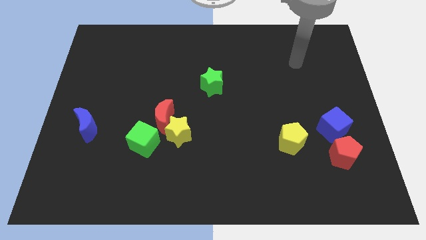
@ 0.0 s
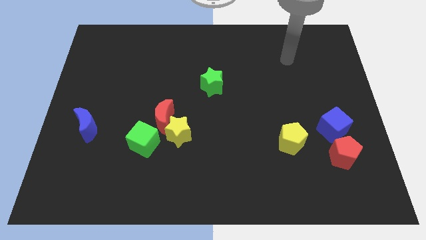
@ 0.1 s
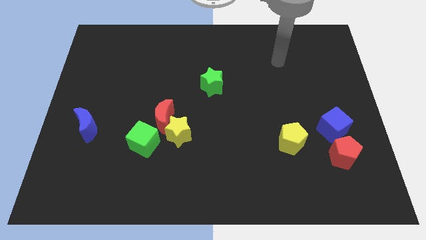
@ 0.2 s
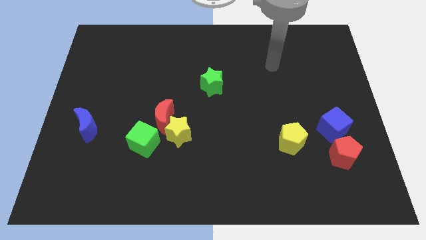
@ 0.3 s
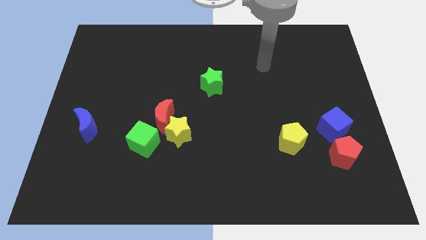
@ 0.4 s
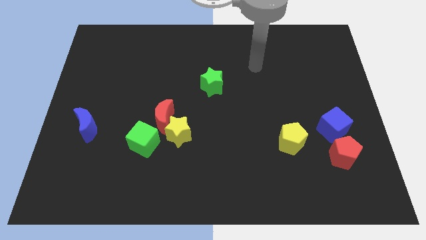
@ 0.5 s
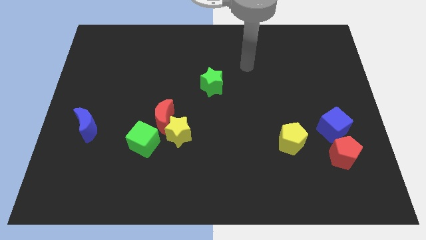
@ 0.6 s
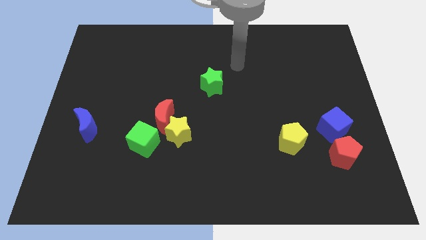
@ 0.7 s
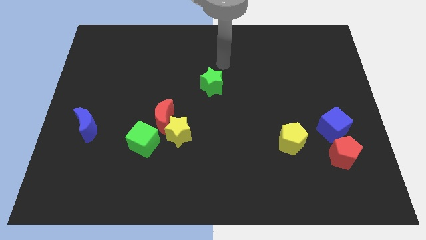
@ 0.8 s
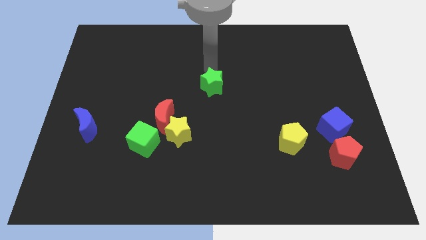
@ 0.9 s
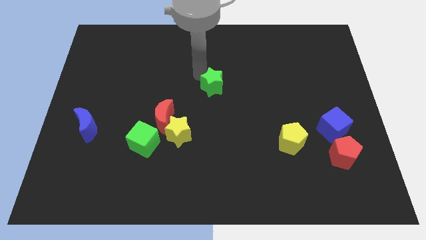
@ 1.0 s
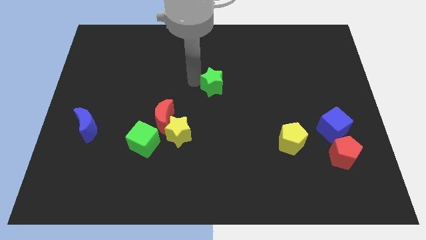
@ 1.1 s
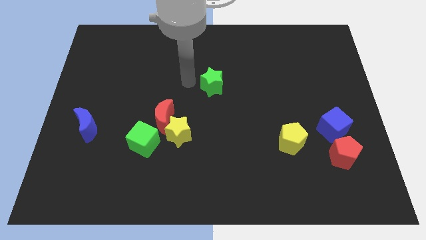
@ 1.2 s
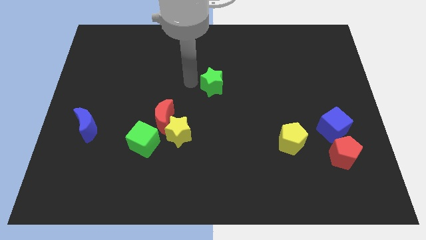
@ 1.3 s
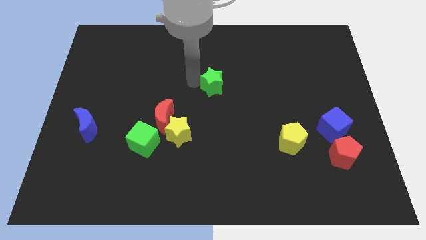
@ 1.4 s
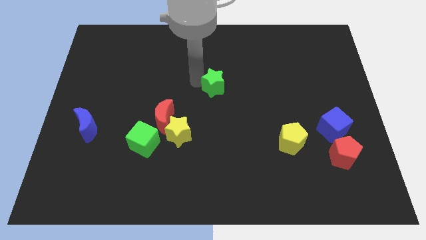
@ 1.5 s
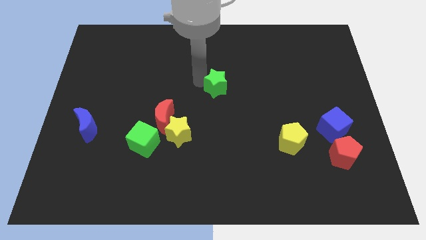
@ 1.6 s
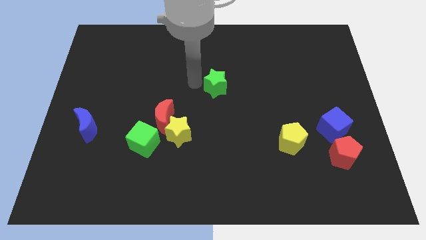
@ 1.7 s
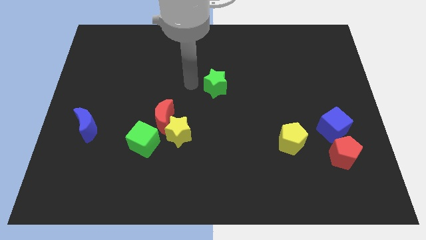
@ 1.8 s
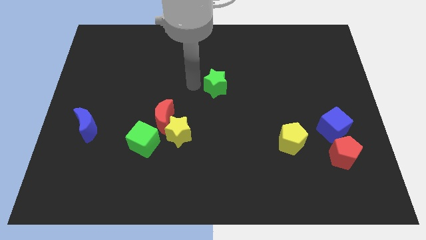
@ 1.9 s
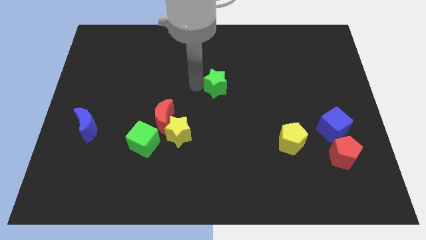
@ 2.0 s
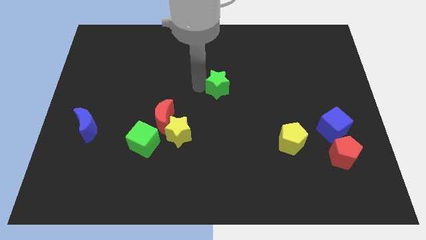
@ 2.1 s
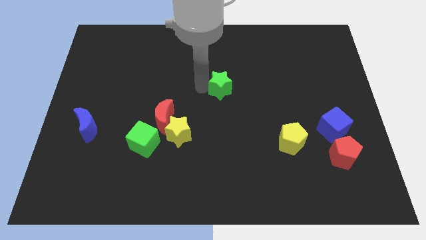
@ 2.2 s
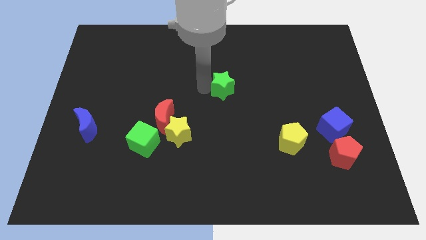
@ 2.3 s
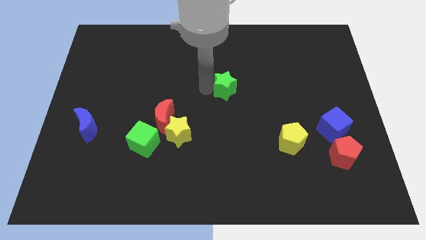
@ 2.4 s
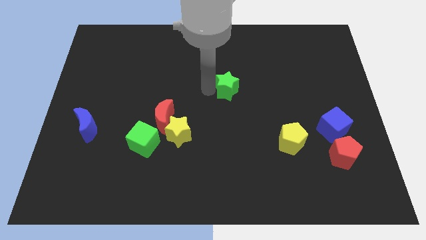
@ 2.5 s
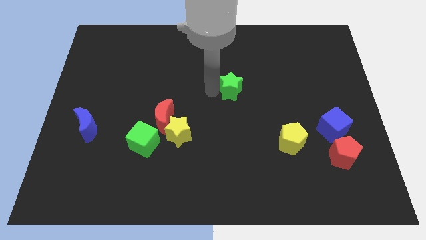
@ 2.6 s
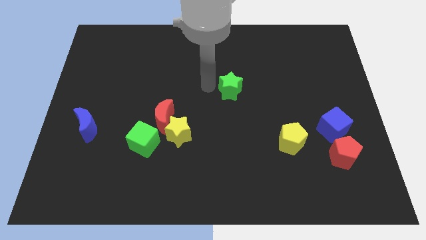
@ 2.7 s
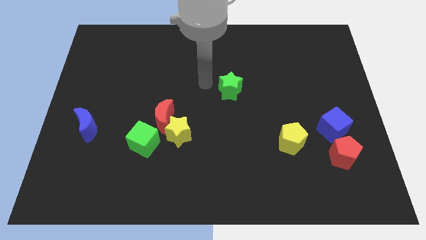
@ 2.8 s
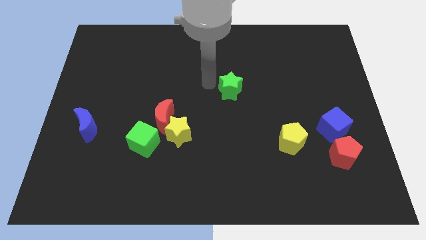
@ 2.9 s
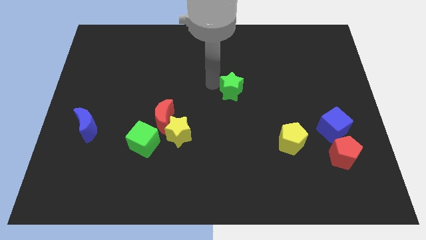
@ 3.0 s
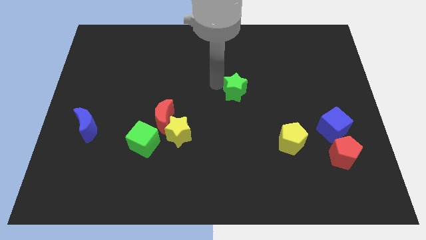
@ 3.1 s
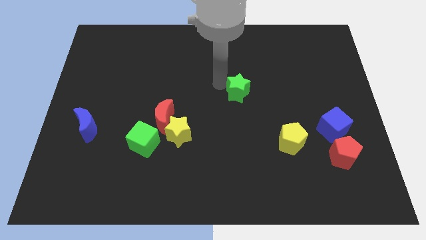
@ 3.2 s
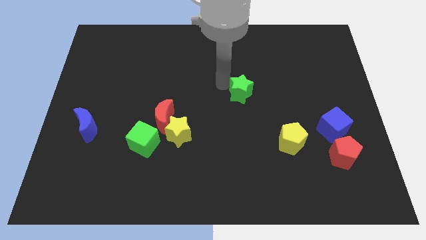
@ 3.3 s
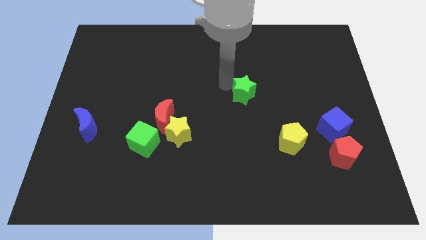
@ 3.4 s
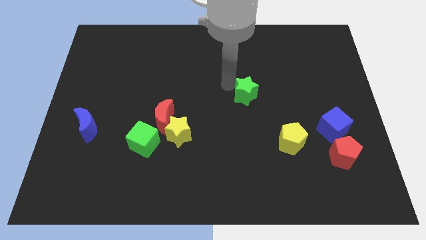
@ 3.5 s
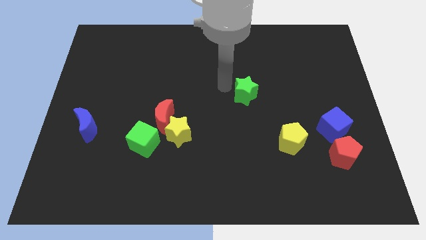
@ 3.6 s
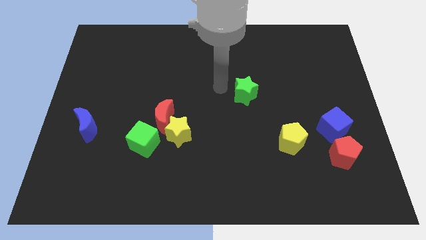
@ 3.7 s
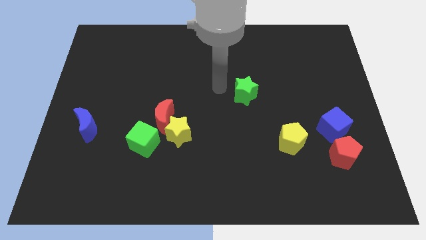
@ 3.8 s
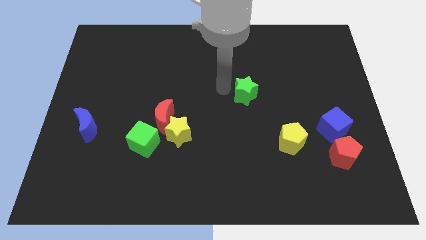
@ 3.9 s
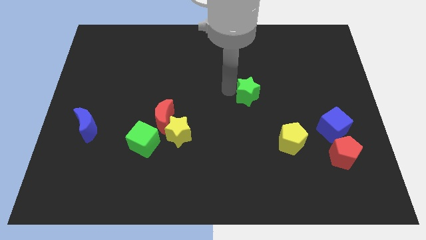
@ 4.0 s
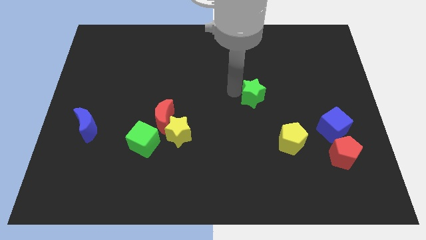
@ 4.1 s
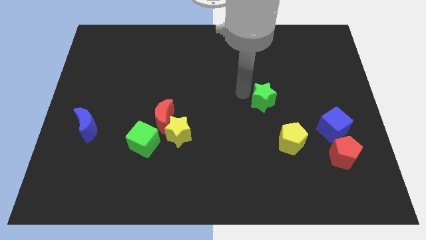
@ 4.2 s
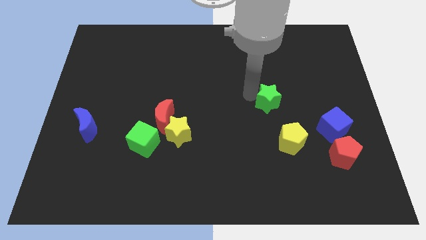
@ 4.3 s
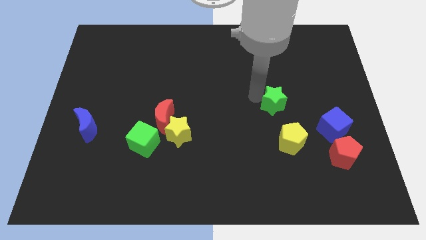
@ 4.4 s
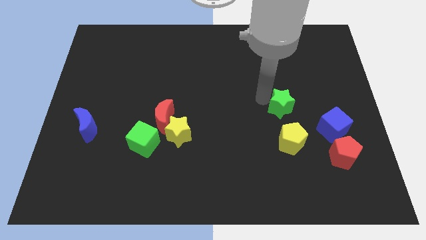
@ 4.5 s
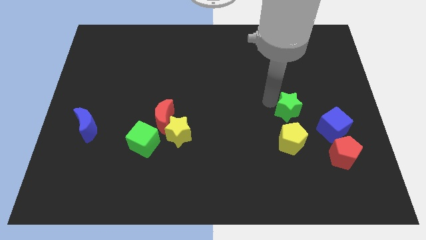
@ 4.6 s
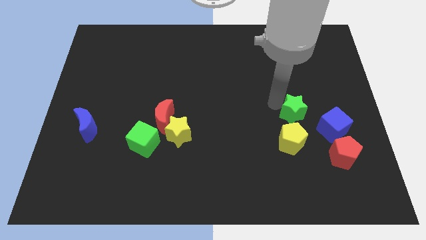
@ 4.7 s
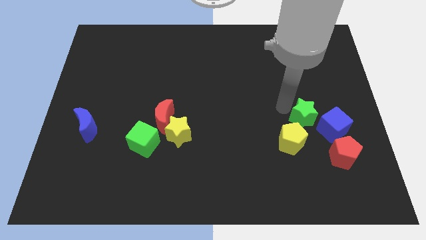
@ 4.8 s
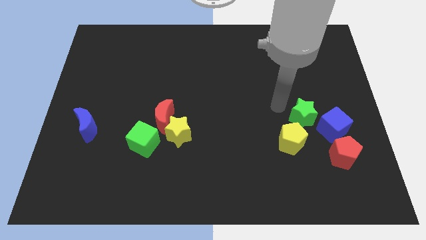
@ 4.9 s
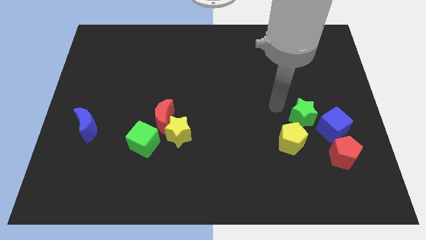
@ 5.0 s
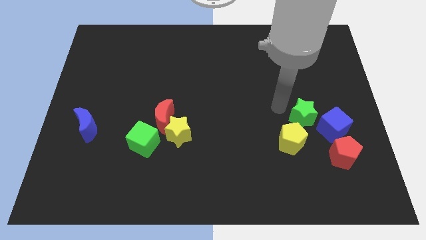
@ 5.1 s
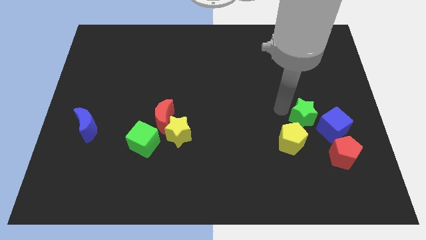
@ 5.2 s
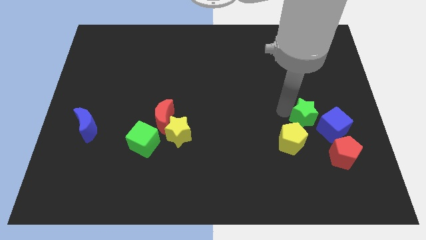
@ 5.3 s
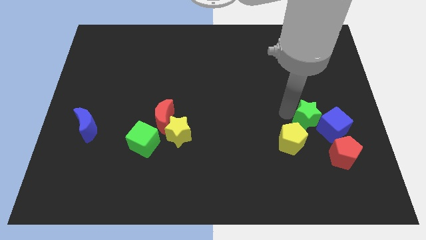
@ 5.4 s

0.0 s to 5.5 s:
slide the green star close to the blue cube

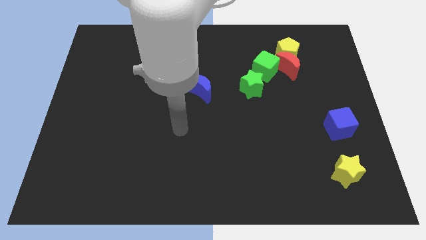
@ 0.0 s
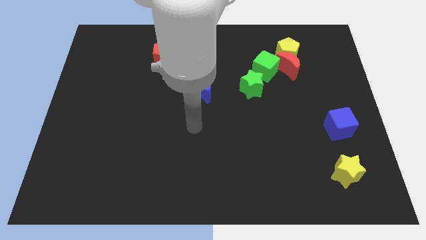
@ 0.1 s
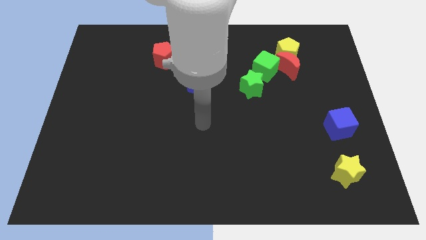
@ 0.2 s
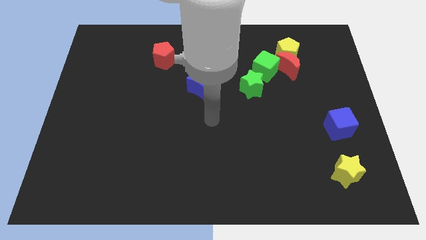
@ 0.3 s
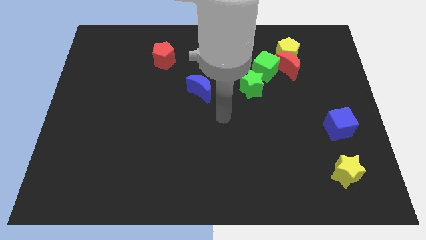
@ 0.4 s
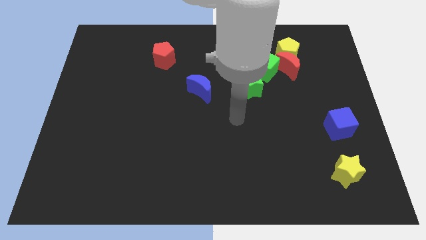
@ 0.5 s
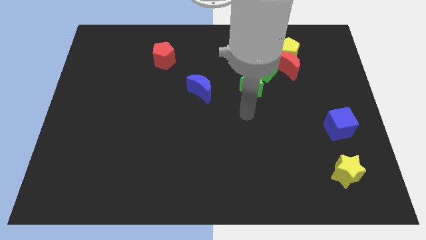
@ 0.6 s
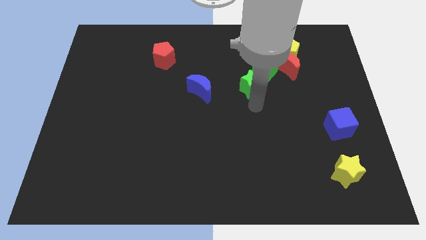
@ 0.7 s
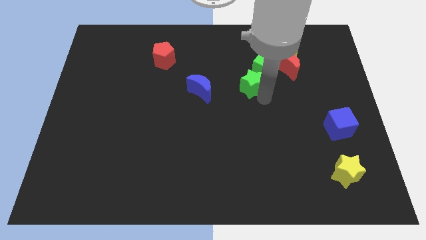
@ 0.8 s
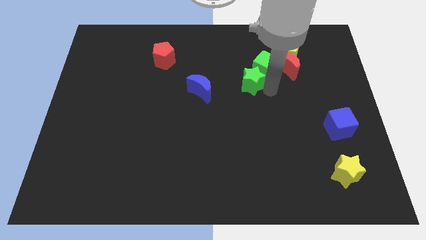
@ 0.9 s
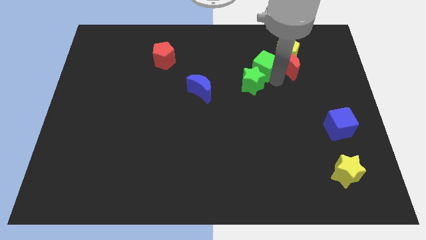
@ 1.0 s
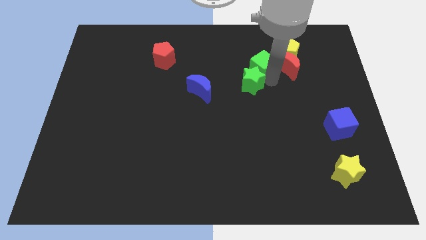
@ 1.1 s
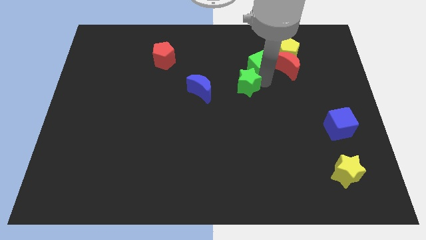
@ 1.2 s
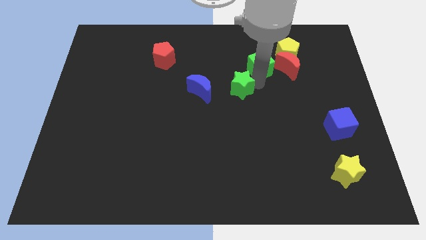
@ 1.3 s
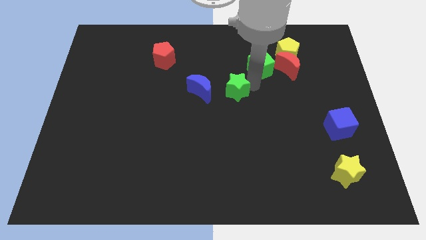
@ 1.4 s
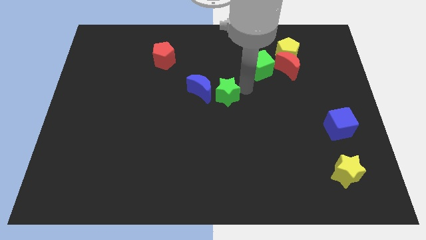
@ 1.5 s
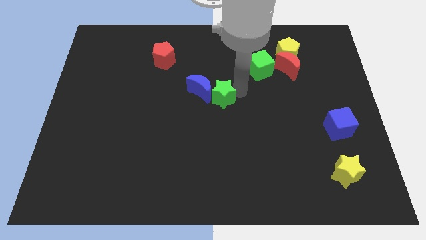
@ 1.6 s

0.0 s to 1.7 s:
slide the green star towards the blue moon

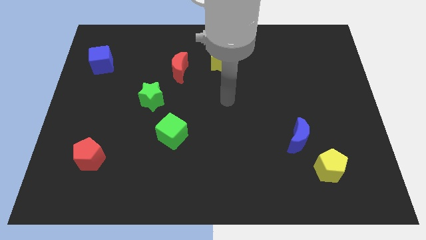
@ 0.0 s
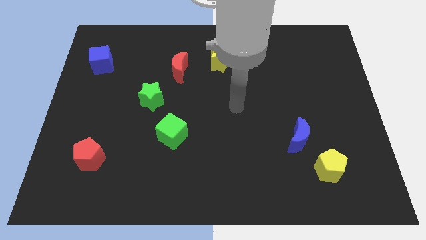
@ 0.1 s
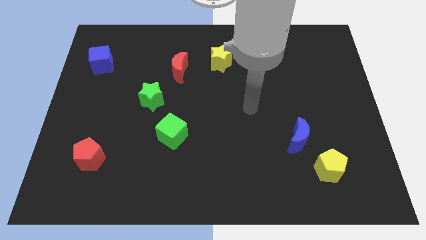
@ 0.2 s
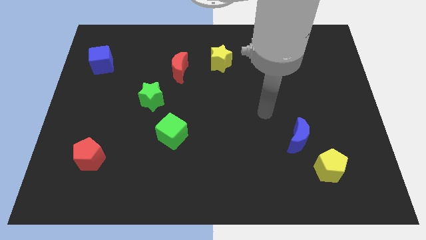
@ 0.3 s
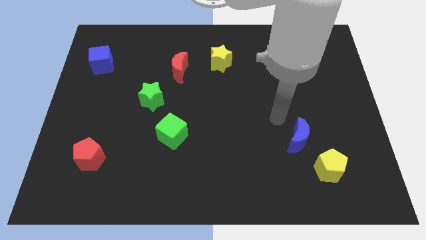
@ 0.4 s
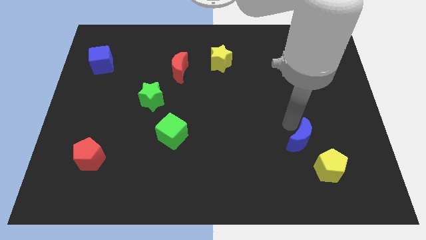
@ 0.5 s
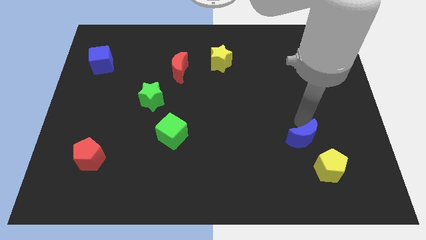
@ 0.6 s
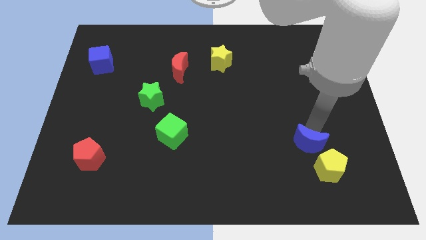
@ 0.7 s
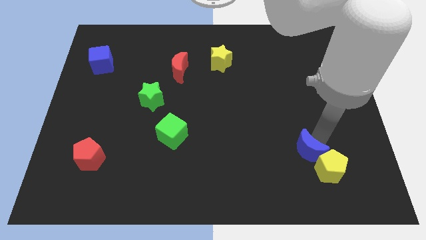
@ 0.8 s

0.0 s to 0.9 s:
move the yellow pentagon next to the blue moon
